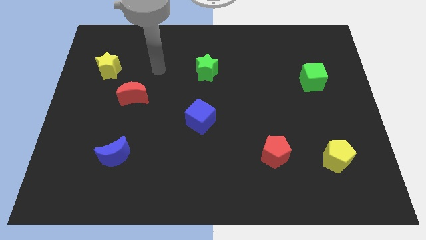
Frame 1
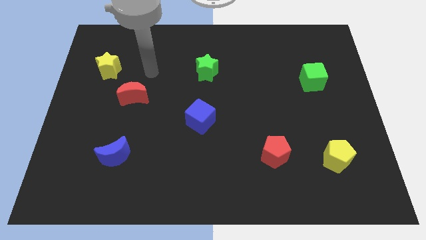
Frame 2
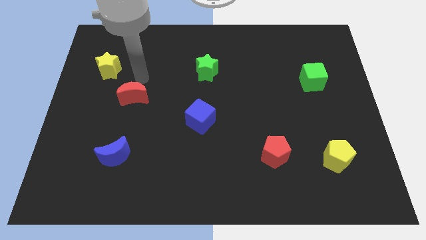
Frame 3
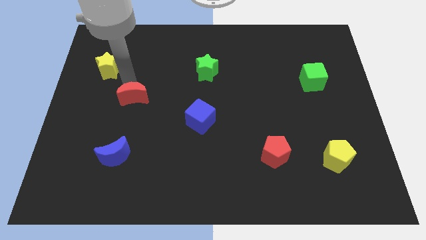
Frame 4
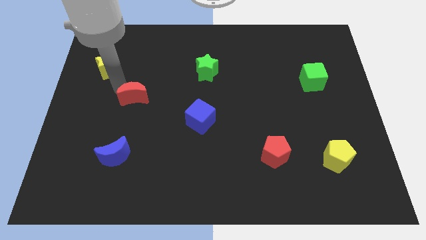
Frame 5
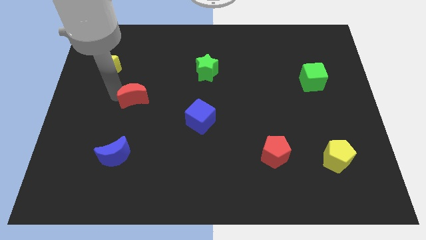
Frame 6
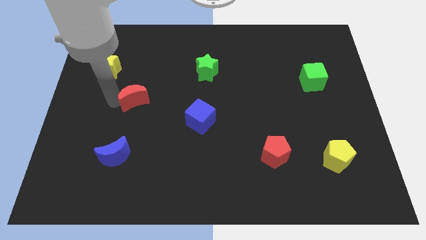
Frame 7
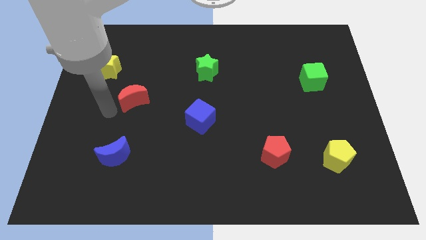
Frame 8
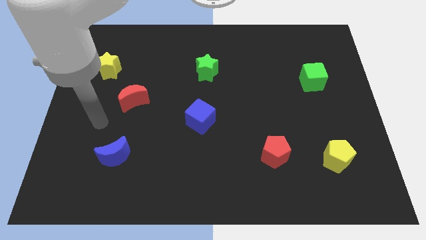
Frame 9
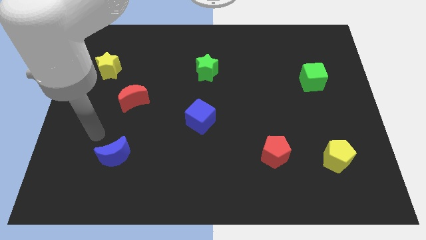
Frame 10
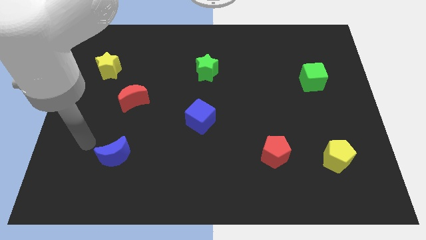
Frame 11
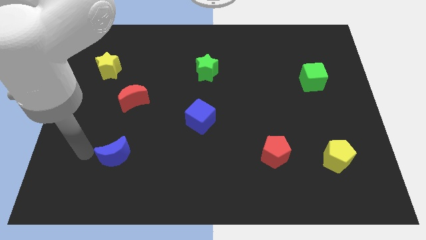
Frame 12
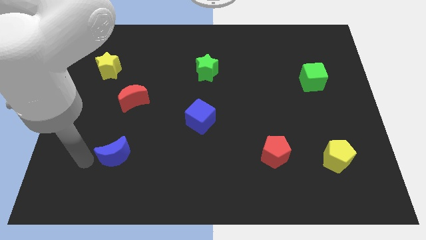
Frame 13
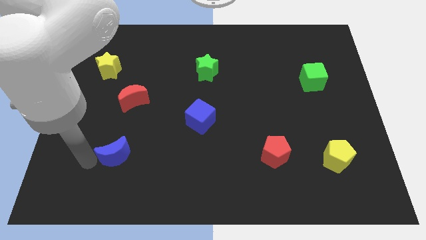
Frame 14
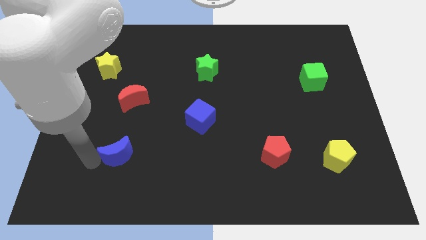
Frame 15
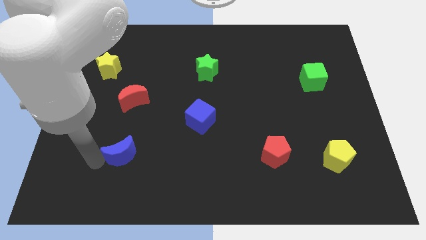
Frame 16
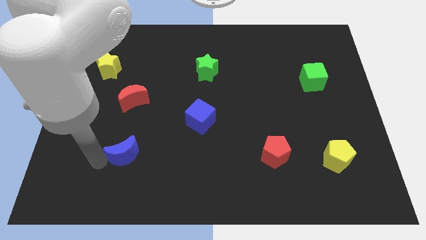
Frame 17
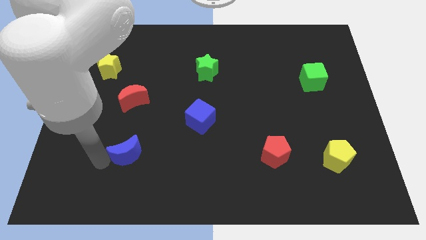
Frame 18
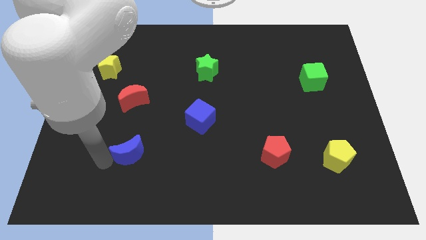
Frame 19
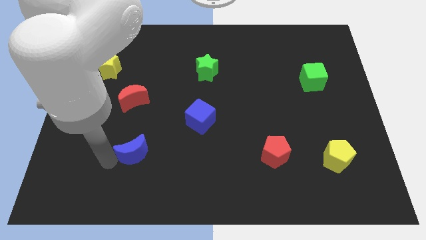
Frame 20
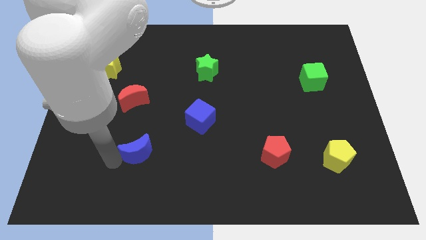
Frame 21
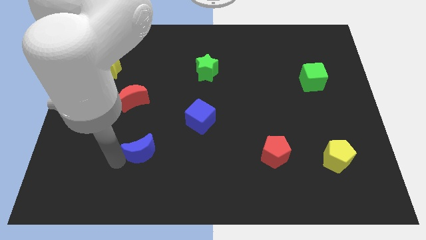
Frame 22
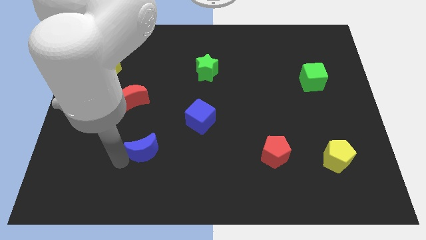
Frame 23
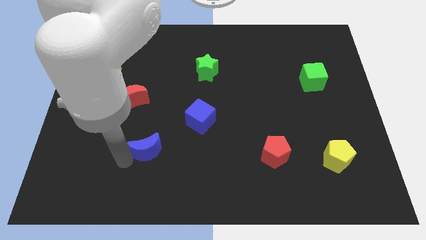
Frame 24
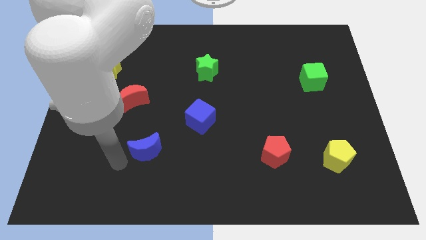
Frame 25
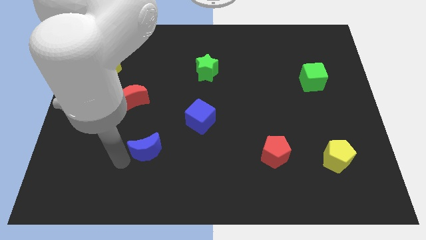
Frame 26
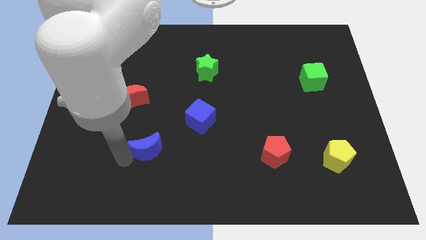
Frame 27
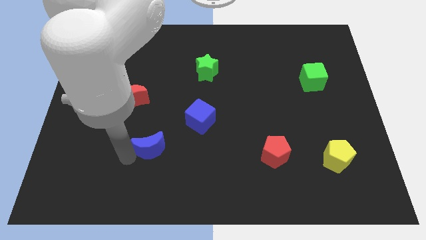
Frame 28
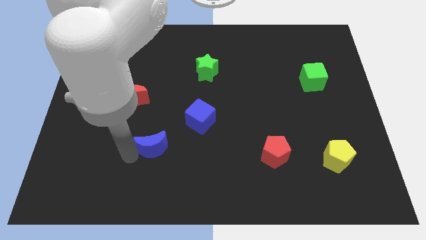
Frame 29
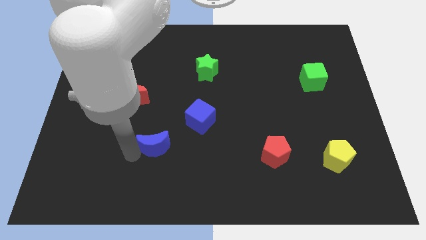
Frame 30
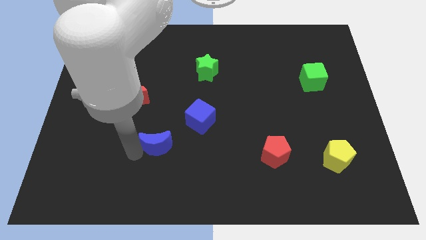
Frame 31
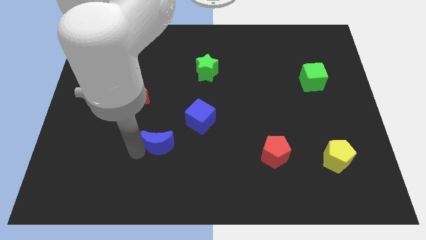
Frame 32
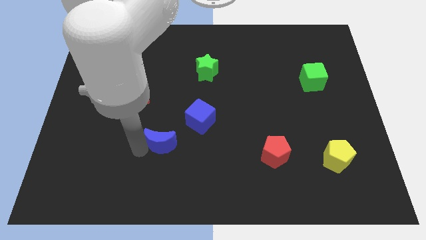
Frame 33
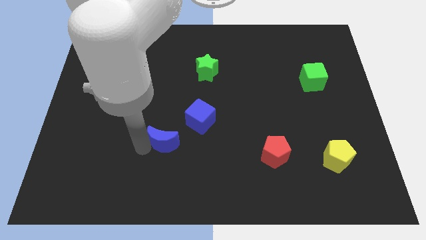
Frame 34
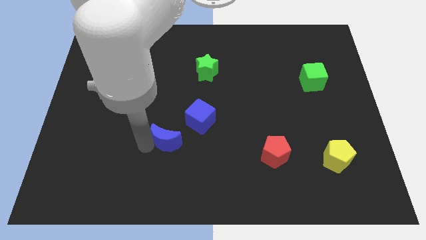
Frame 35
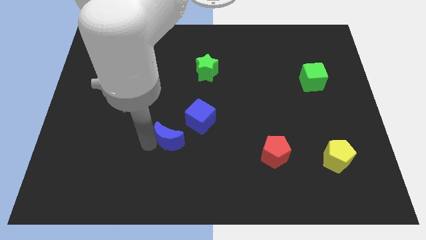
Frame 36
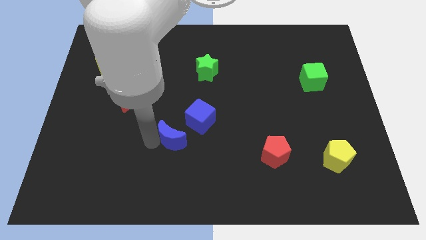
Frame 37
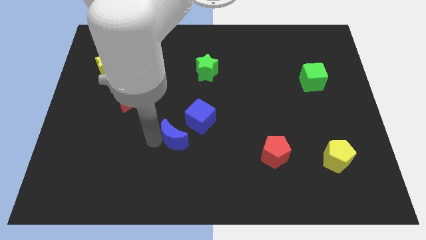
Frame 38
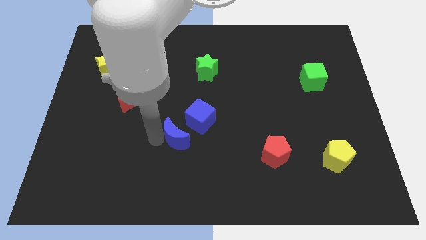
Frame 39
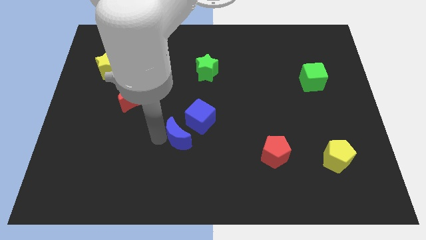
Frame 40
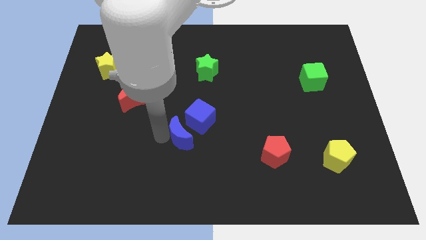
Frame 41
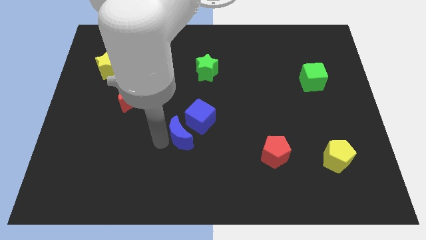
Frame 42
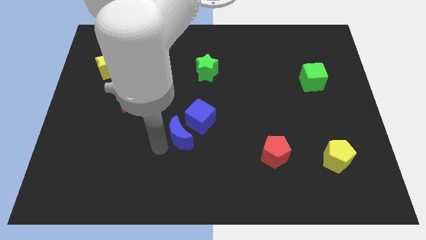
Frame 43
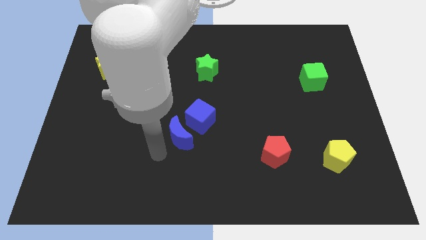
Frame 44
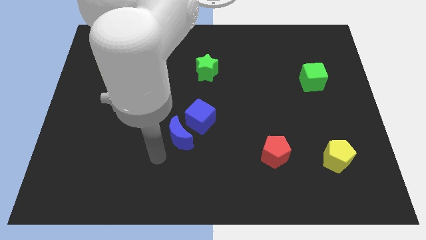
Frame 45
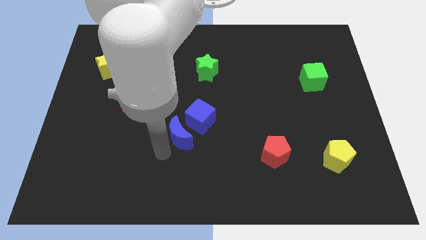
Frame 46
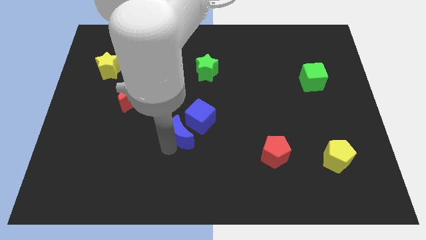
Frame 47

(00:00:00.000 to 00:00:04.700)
push the blue moon towards the blue cube

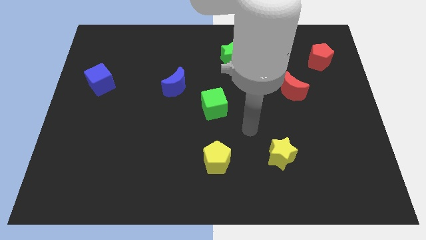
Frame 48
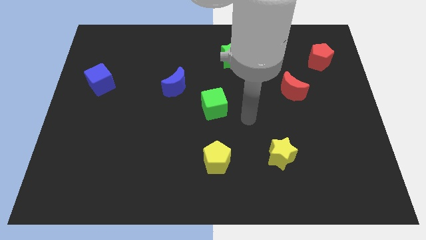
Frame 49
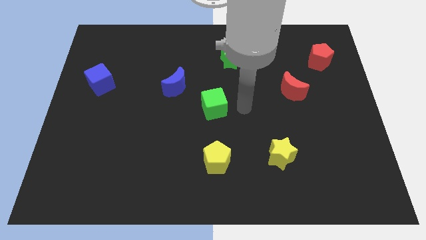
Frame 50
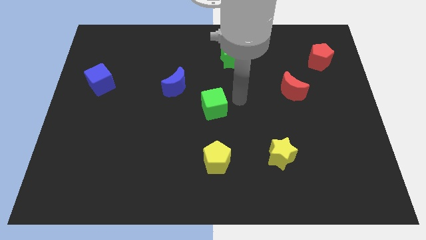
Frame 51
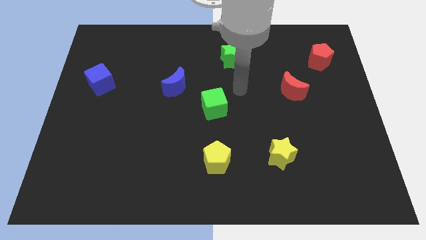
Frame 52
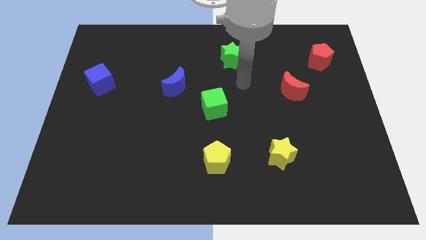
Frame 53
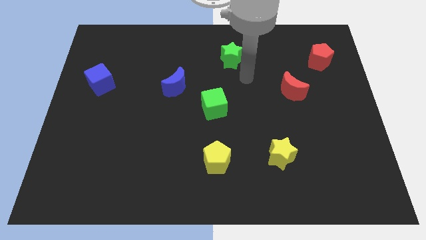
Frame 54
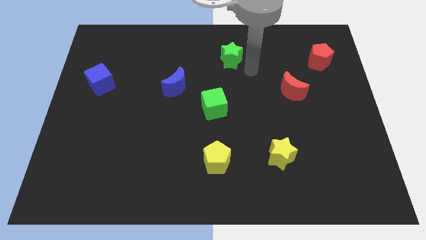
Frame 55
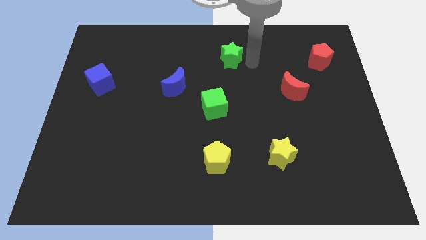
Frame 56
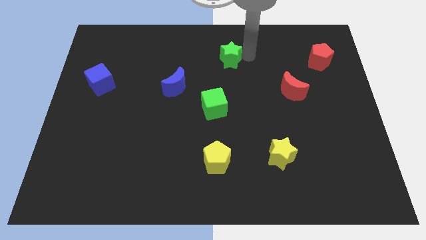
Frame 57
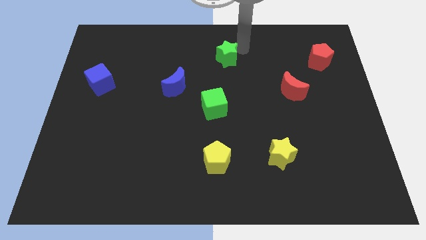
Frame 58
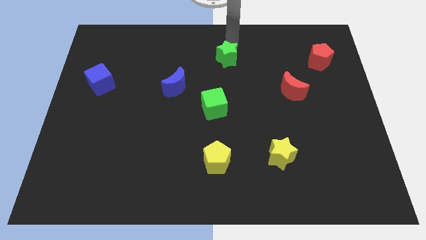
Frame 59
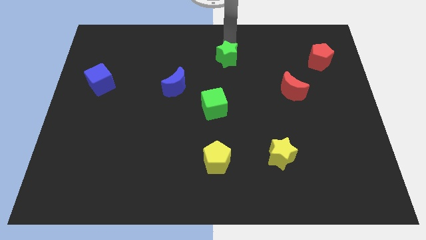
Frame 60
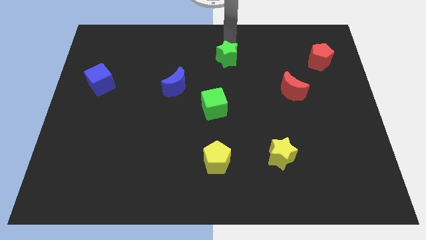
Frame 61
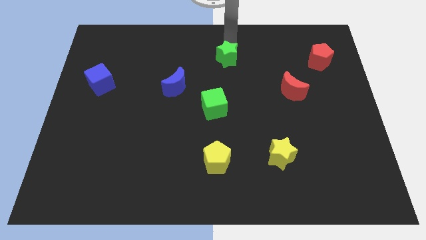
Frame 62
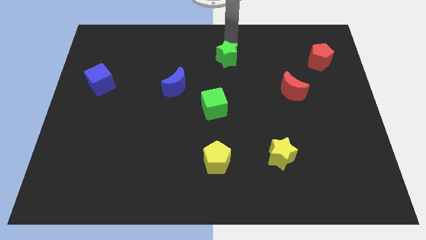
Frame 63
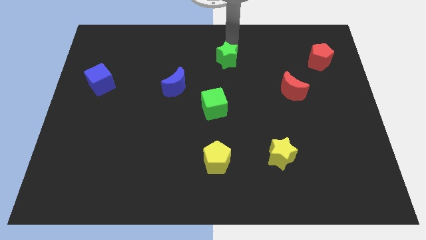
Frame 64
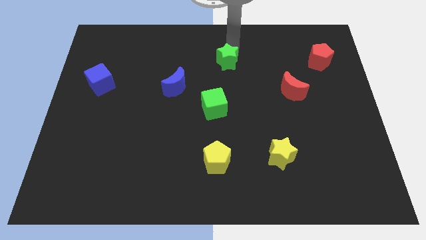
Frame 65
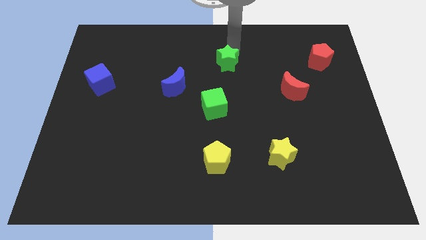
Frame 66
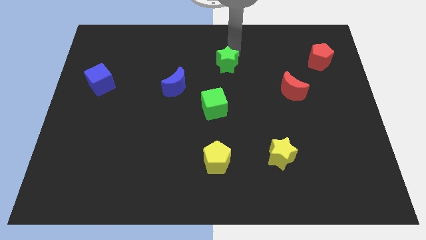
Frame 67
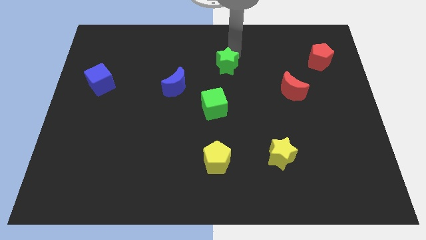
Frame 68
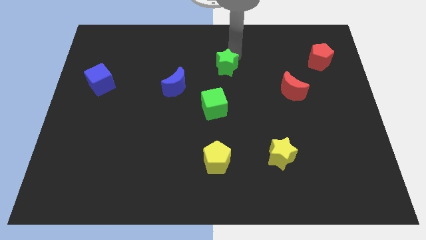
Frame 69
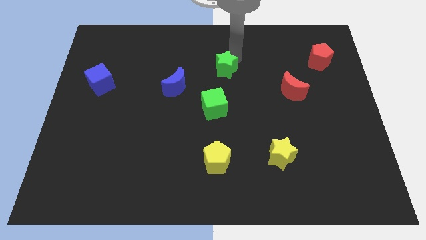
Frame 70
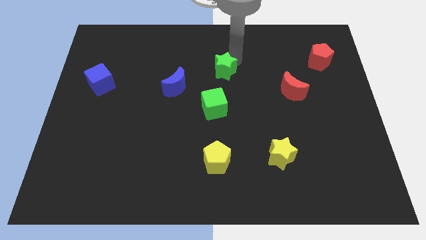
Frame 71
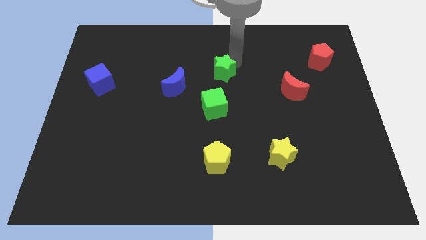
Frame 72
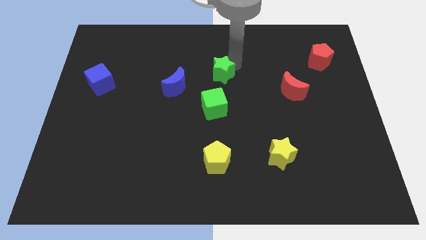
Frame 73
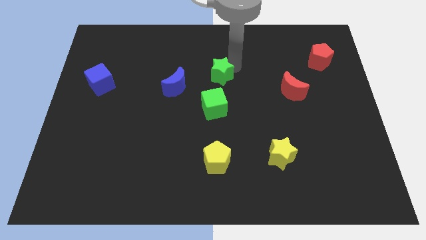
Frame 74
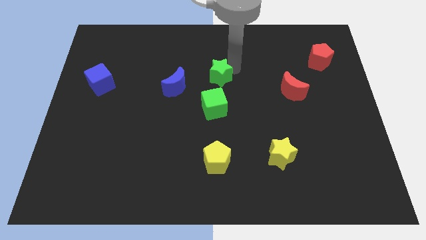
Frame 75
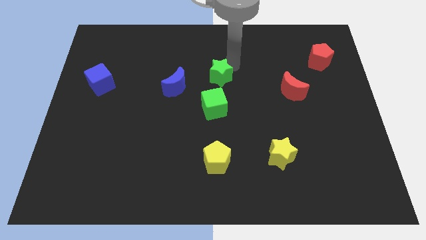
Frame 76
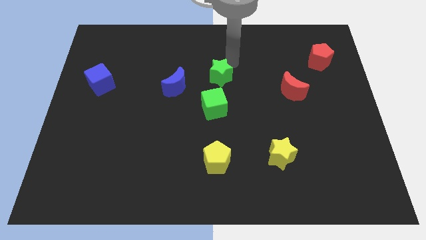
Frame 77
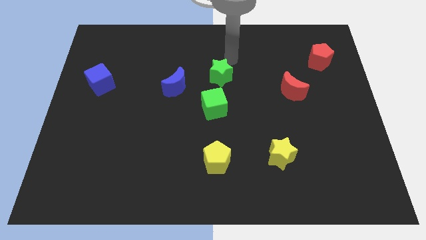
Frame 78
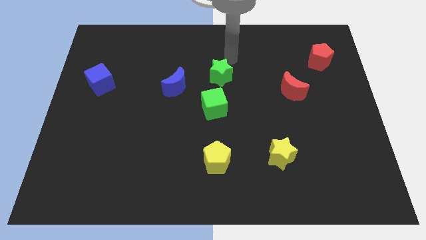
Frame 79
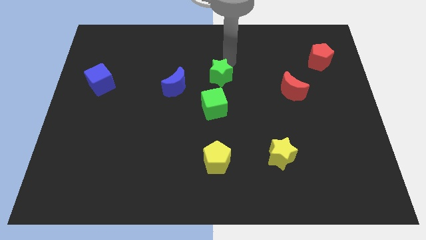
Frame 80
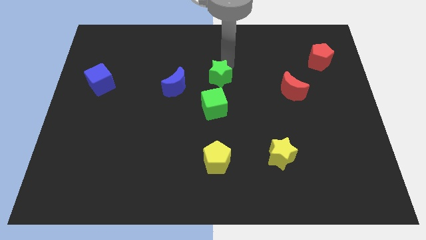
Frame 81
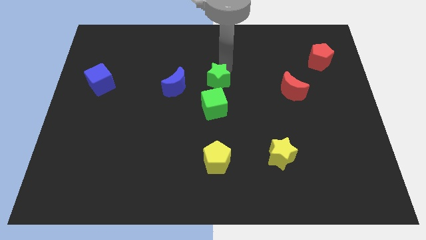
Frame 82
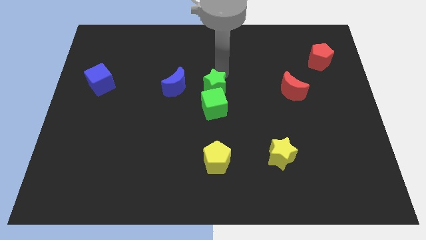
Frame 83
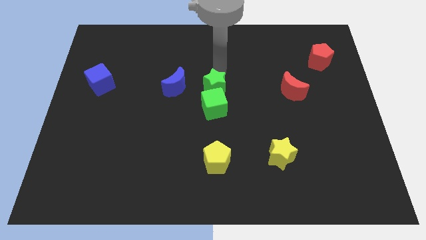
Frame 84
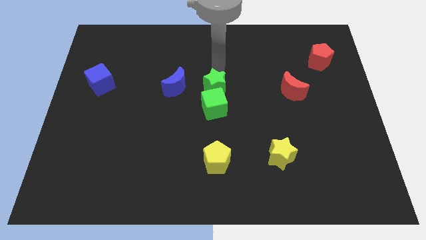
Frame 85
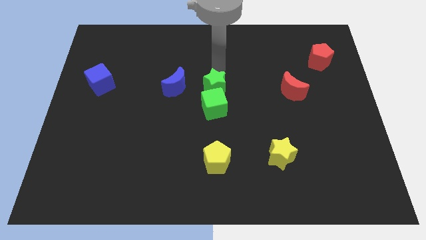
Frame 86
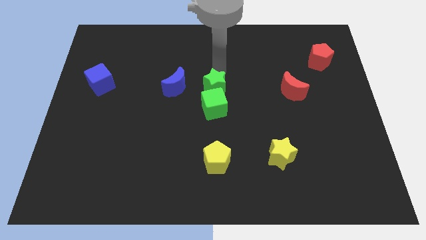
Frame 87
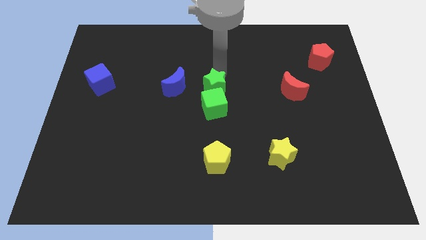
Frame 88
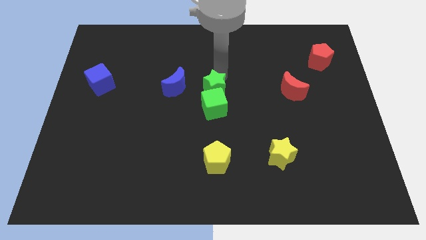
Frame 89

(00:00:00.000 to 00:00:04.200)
push the green star next to the green cube
